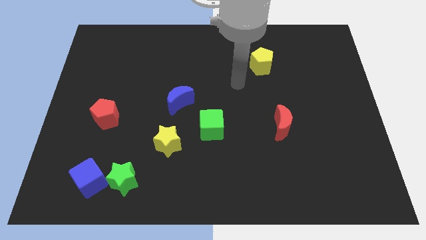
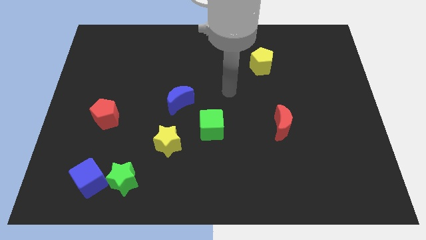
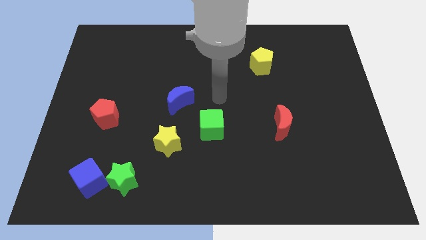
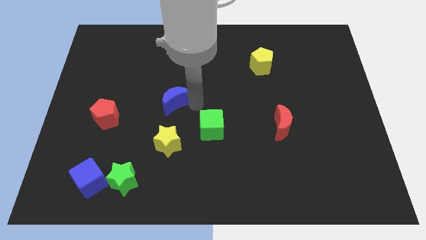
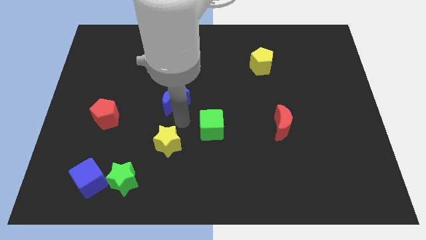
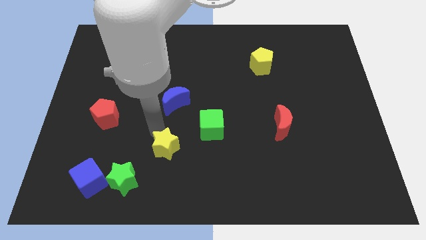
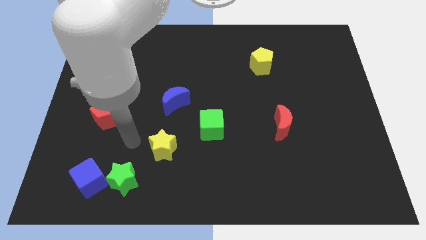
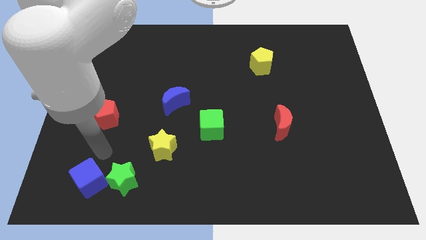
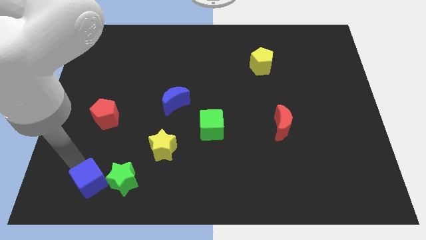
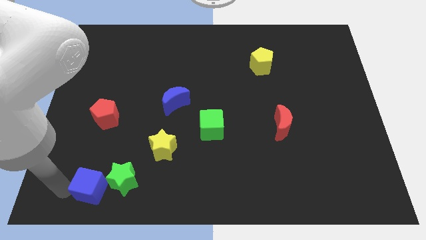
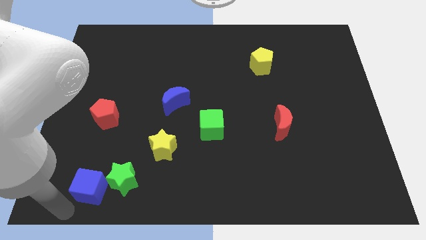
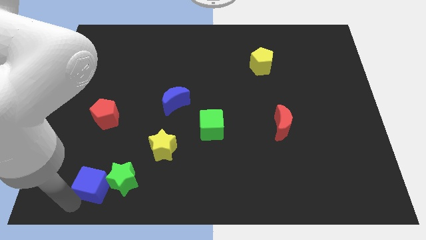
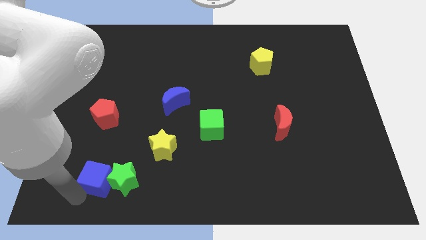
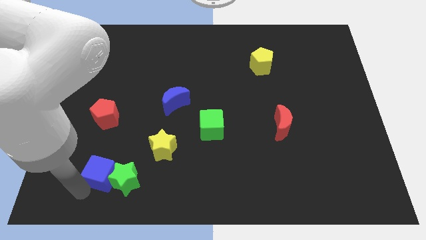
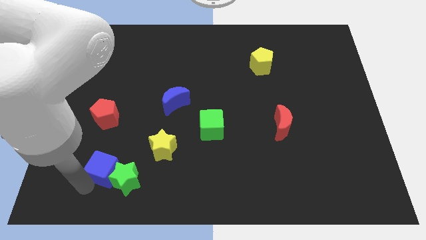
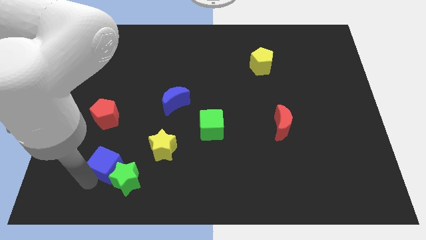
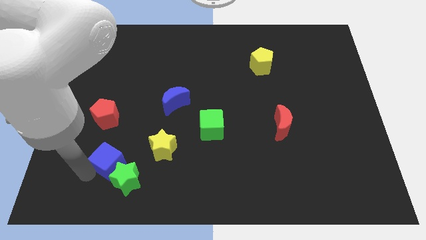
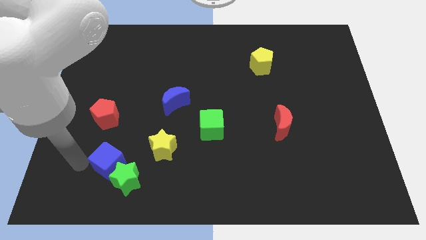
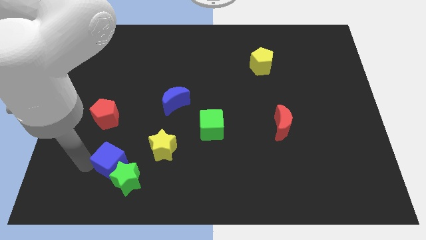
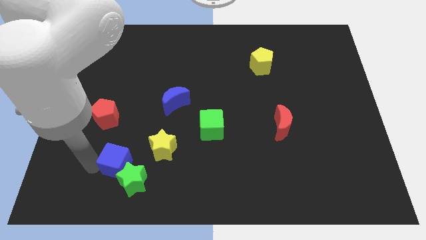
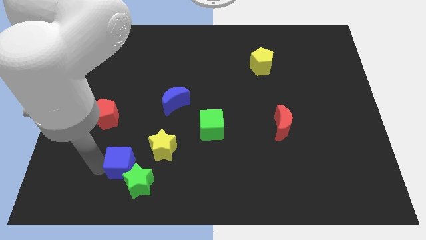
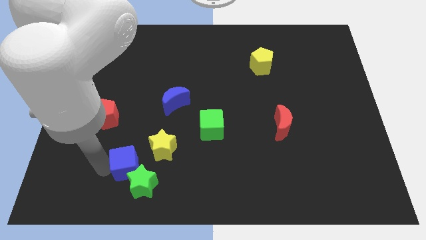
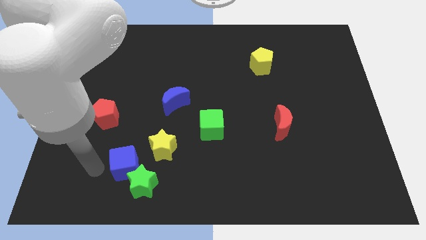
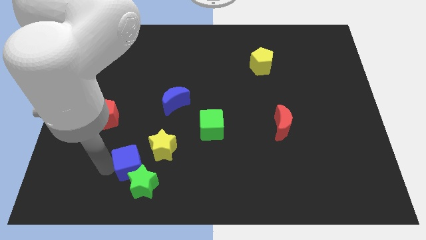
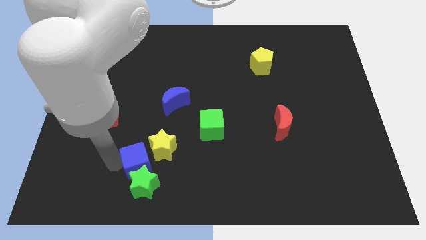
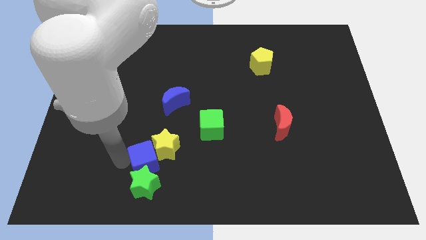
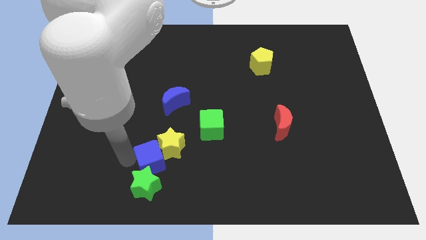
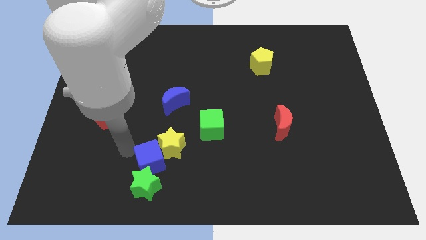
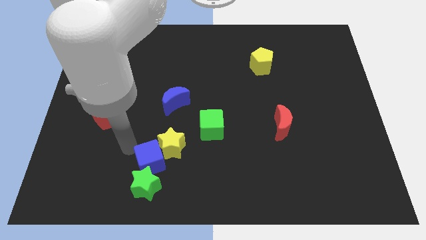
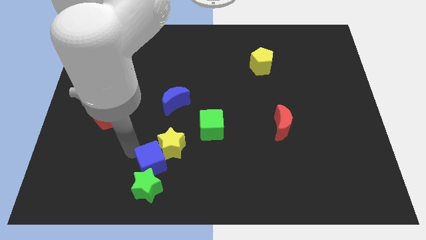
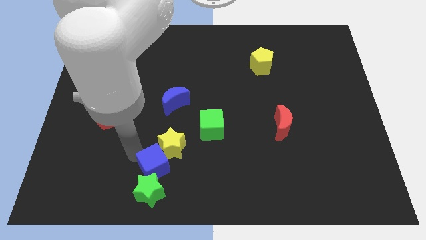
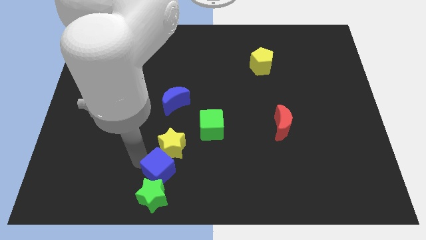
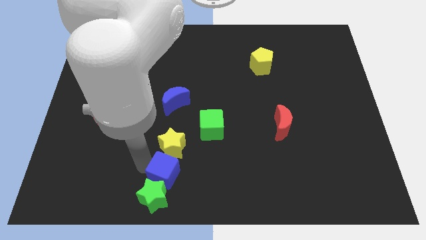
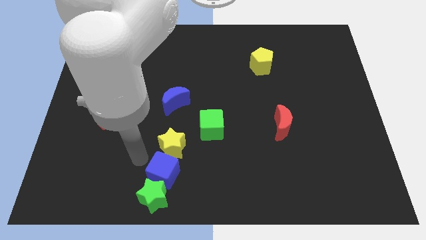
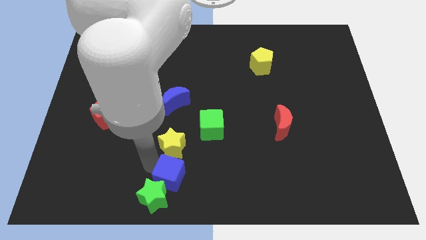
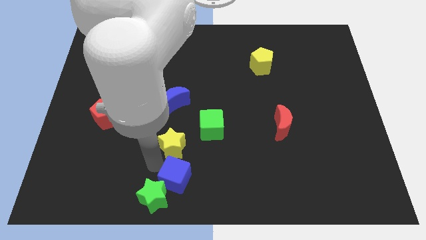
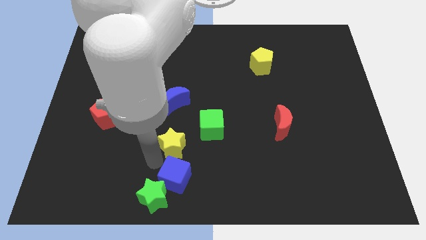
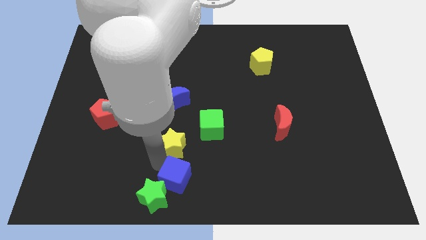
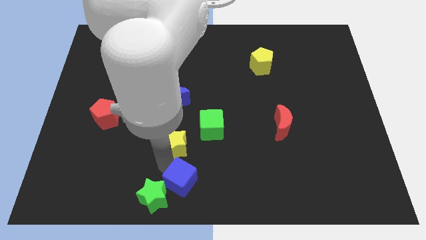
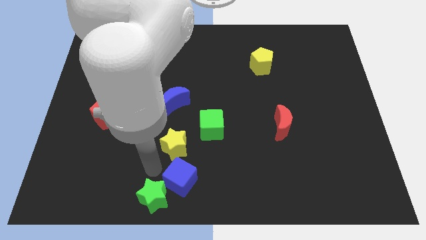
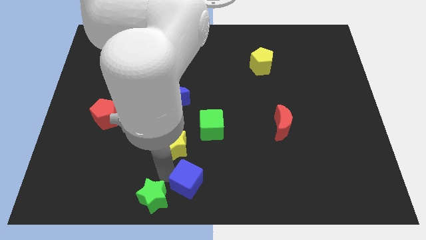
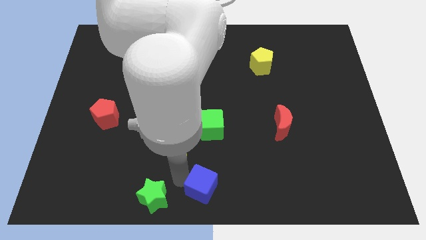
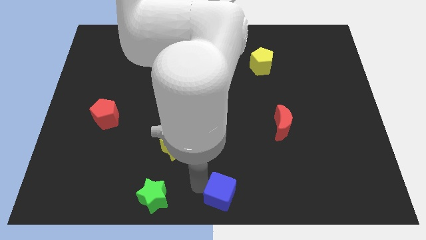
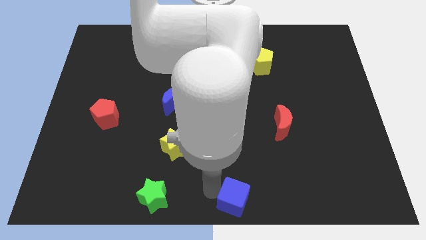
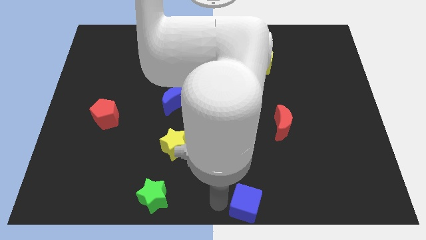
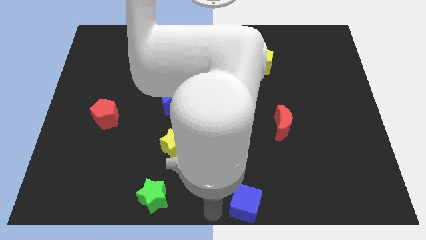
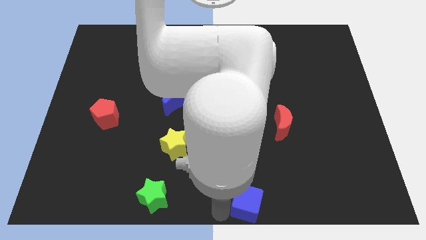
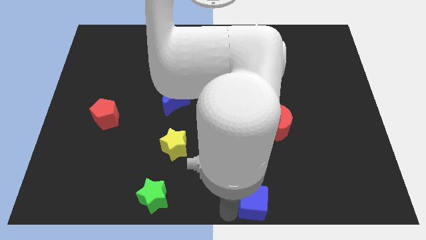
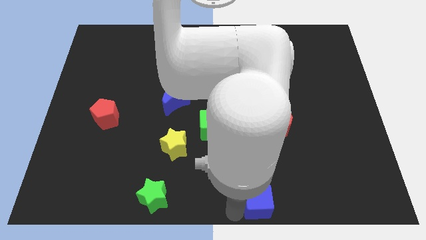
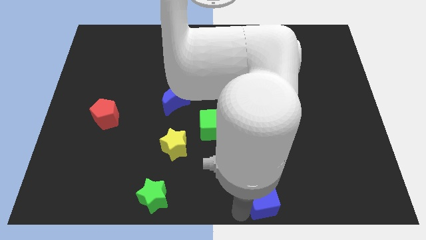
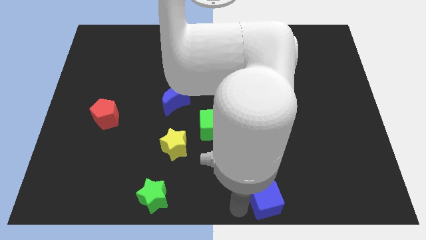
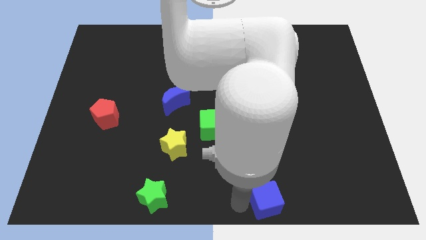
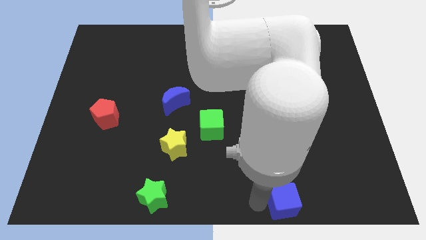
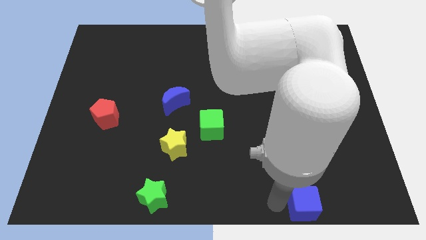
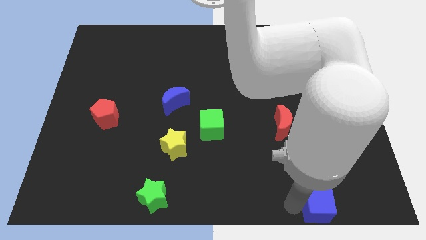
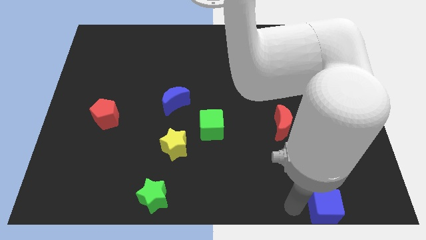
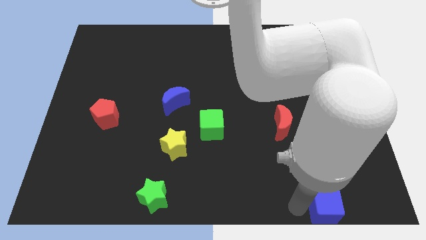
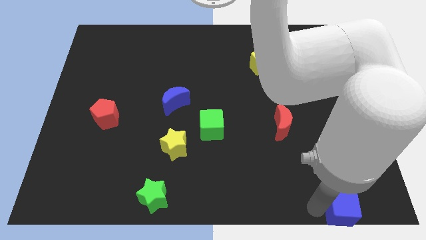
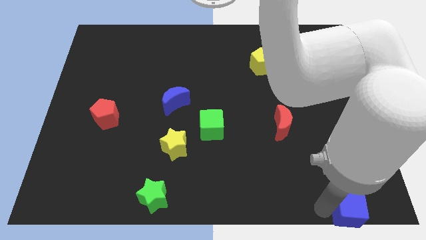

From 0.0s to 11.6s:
put the blue cube to the bottom right corner

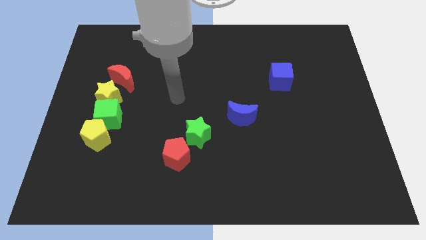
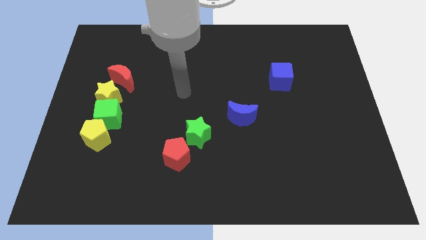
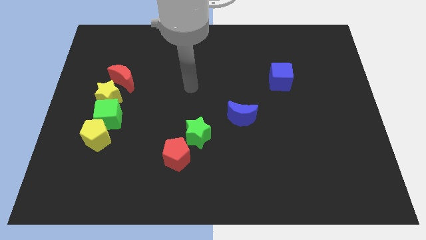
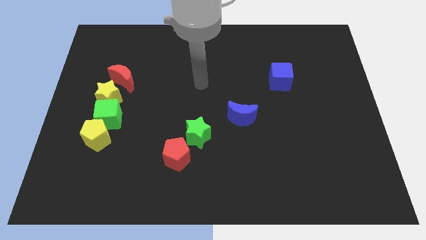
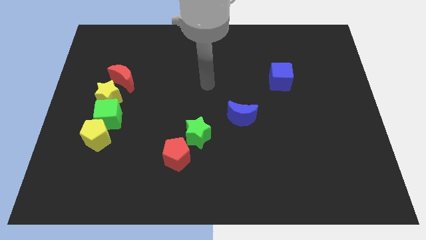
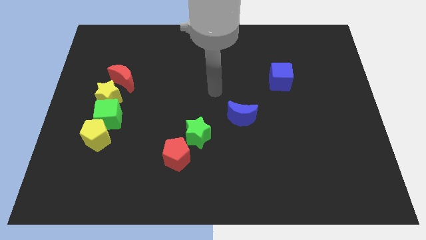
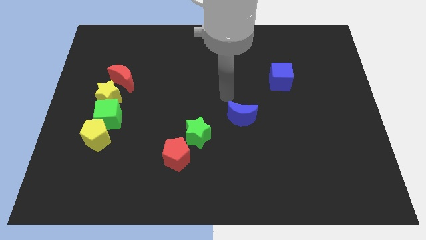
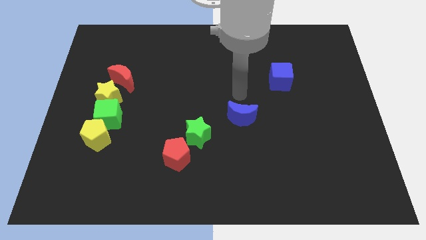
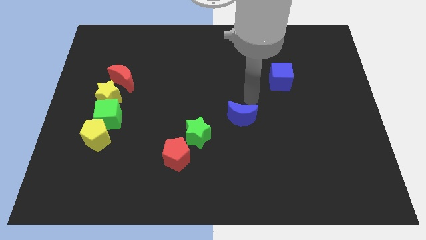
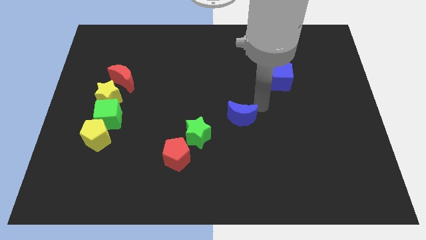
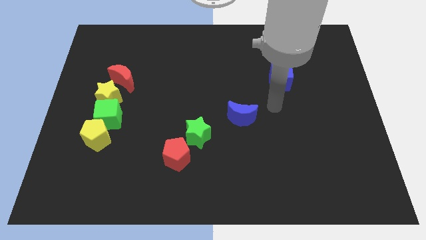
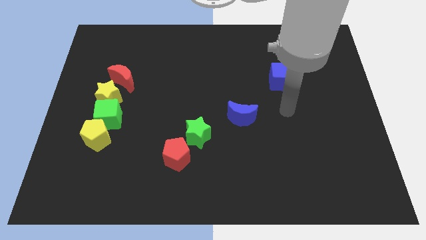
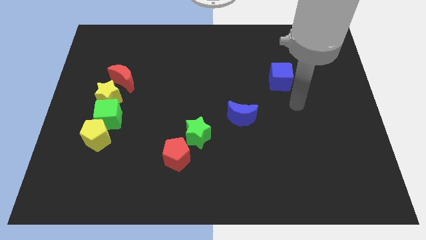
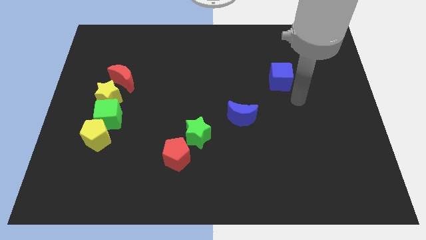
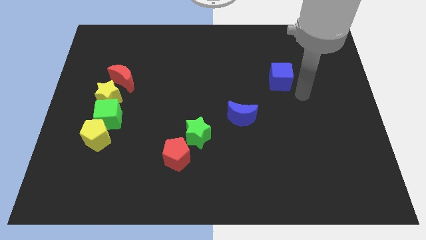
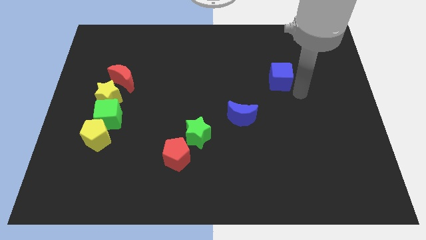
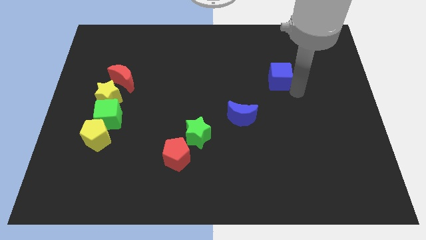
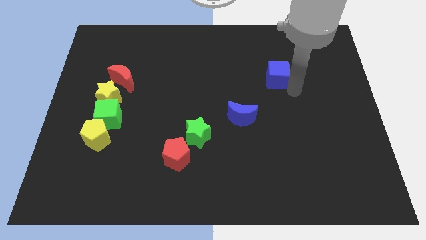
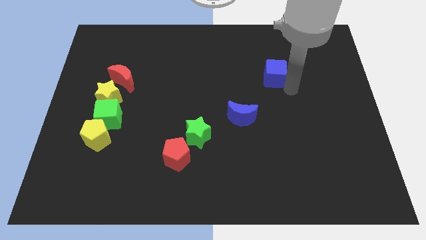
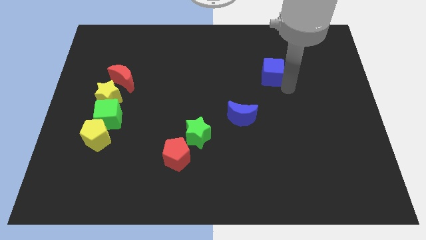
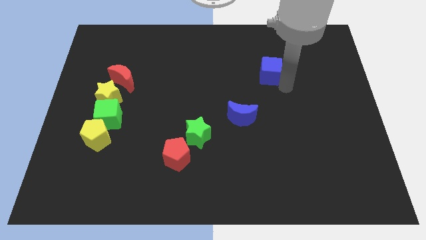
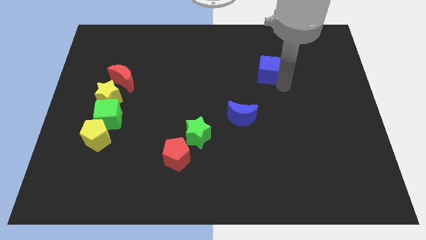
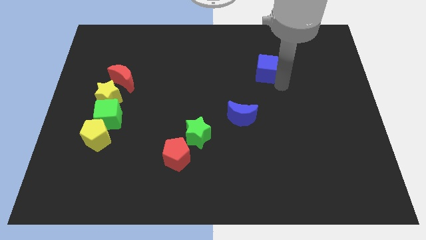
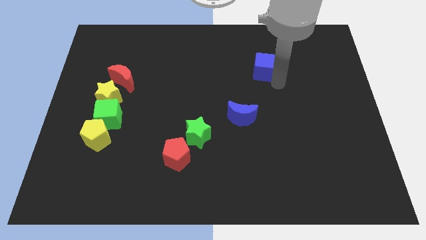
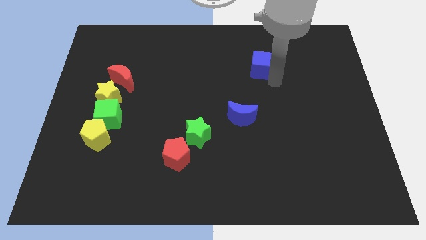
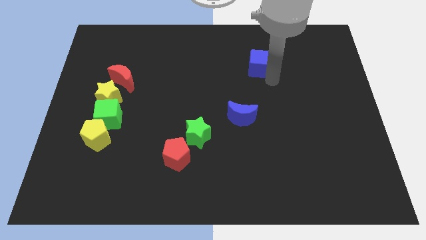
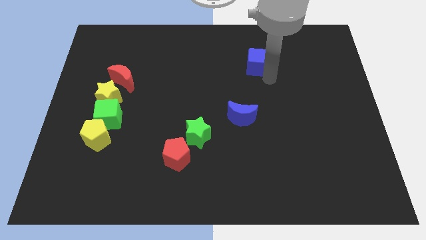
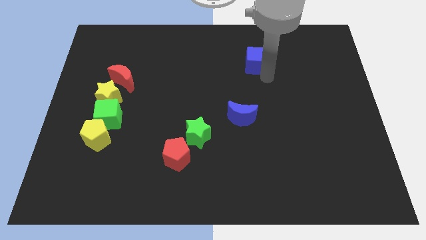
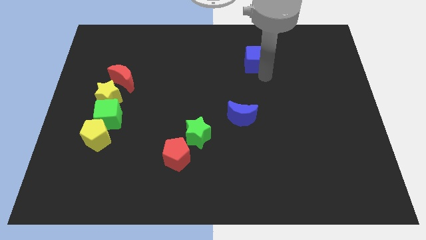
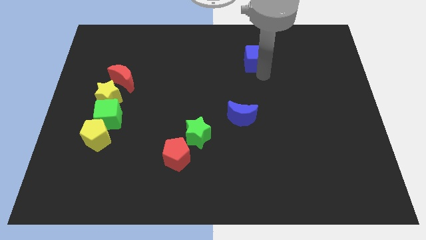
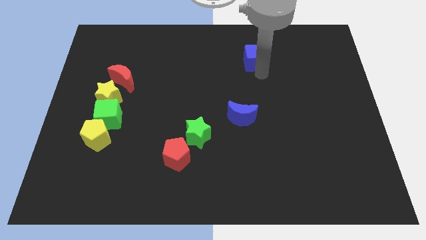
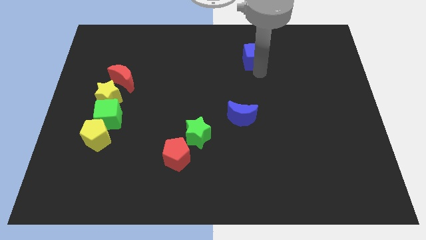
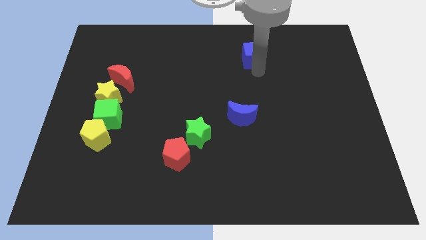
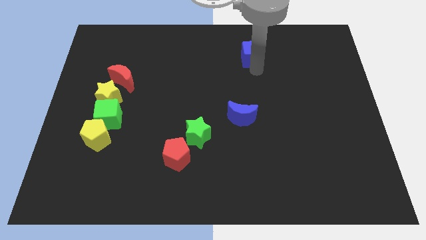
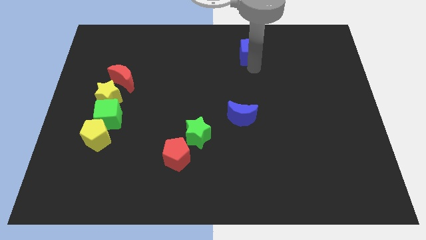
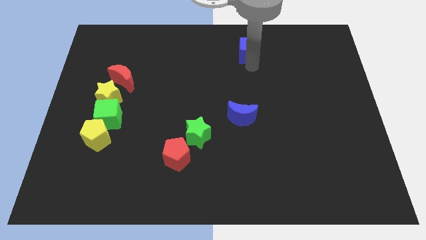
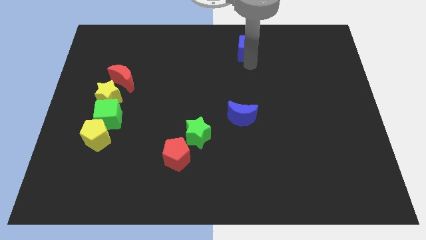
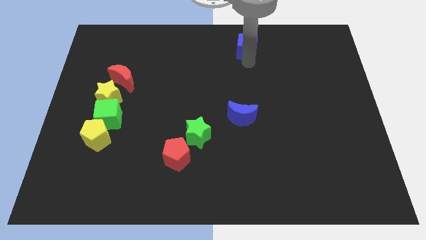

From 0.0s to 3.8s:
put the blue cube to the top
